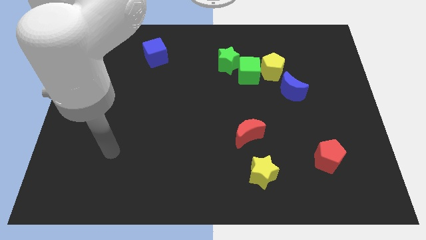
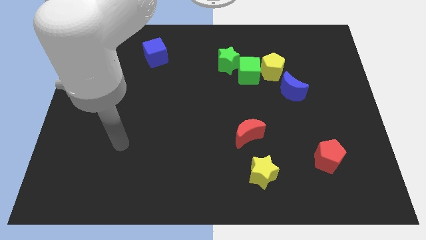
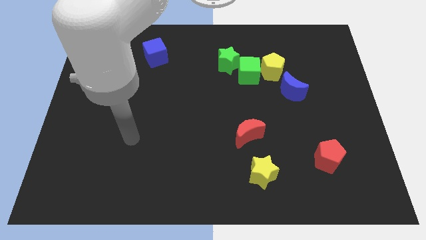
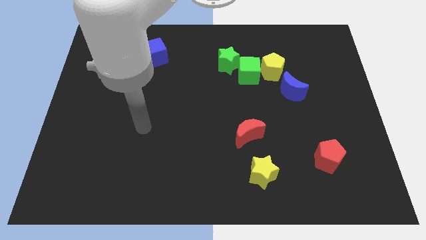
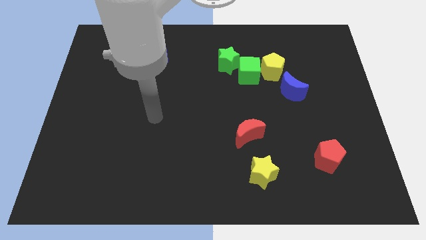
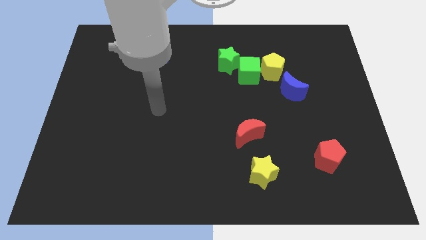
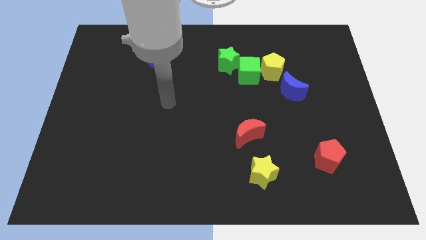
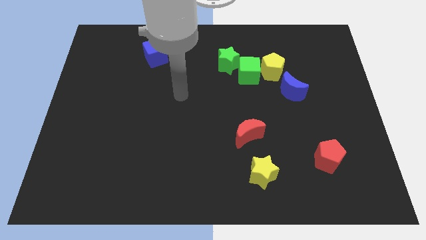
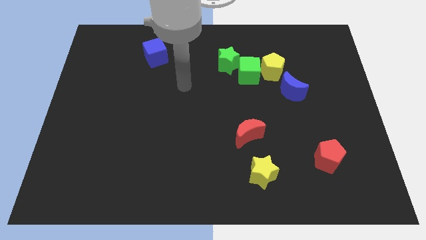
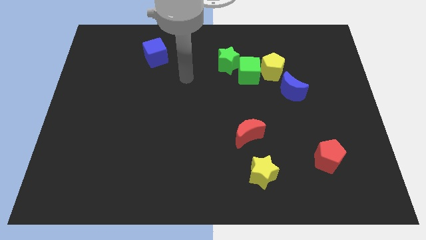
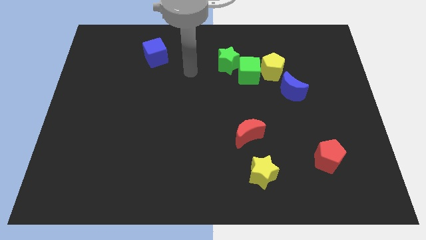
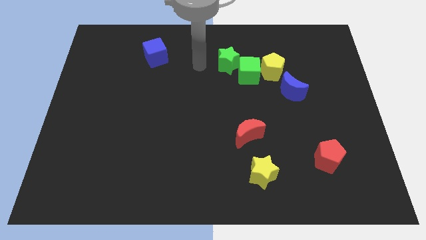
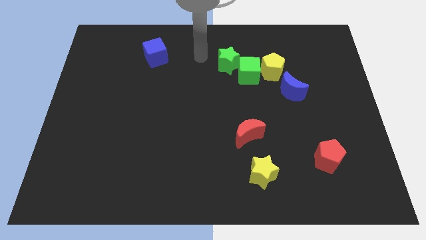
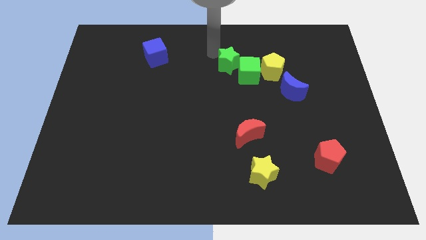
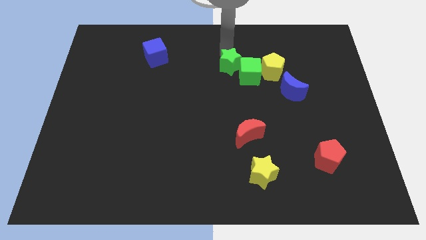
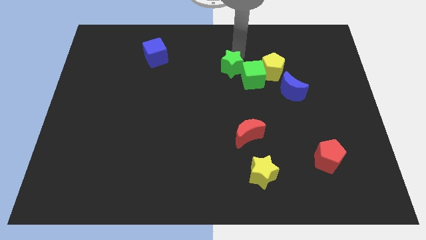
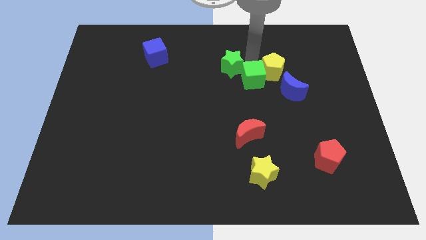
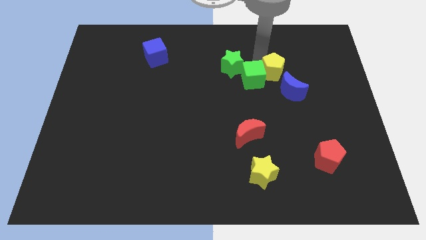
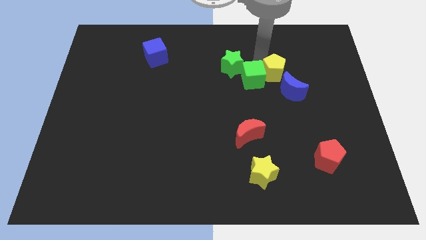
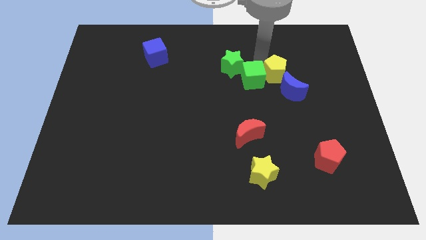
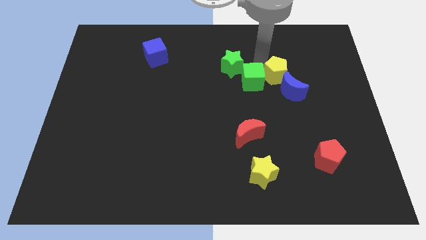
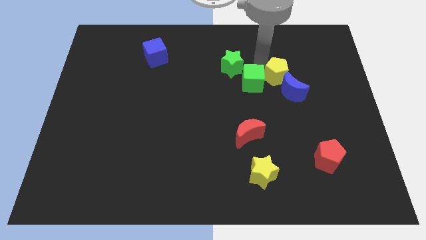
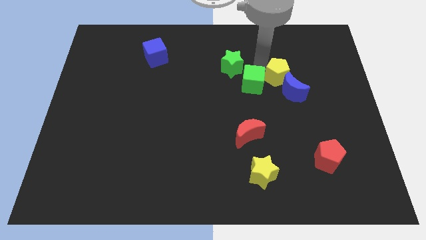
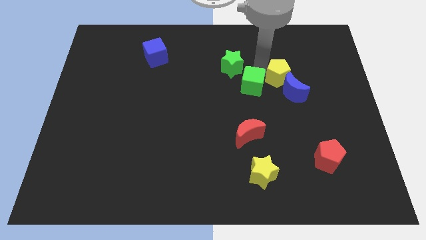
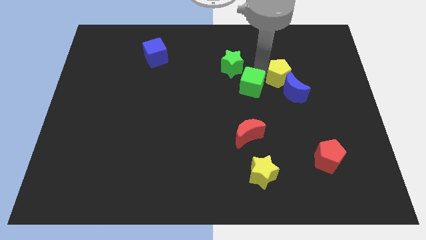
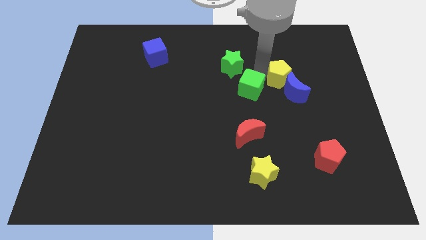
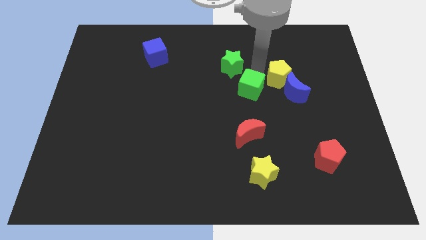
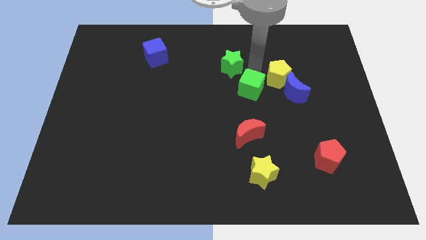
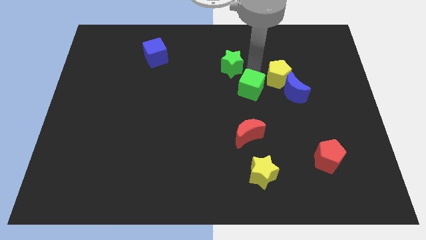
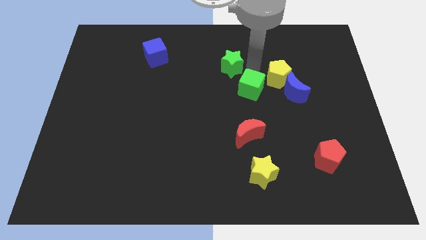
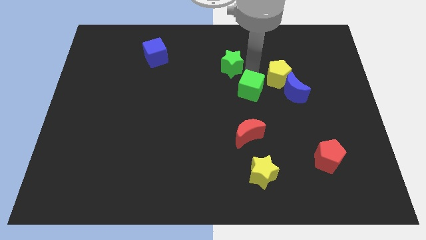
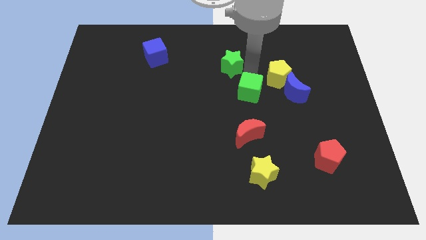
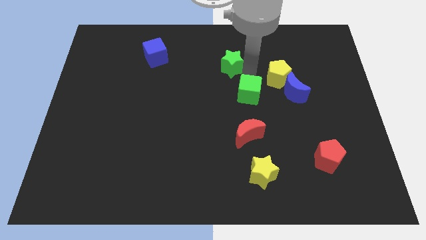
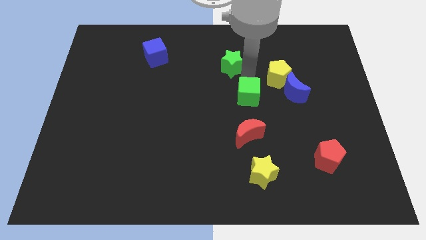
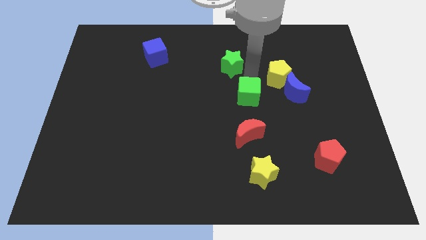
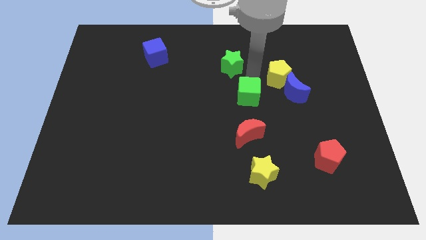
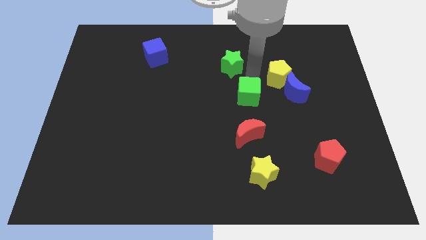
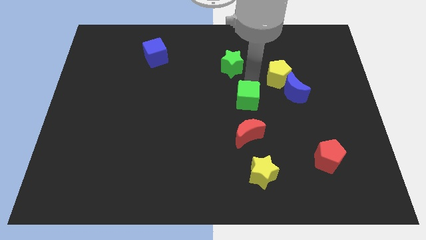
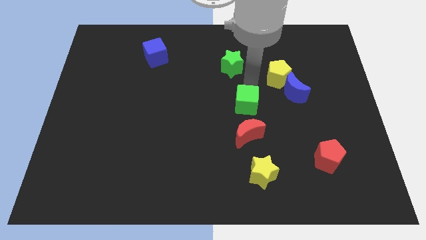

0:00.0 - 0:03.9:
move the green cube away from the yellow pentagon and green star

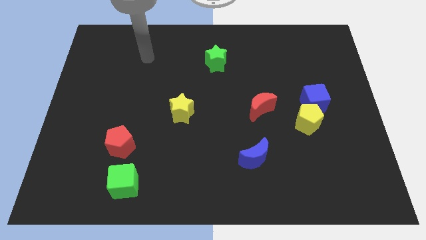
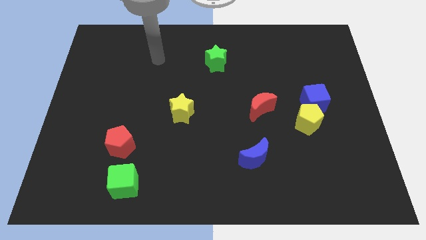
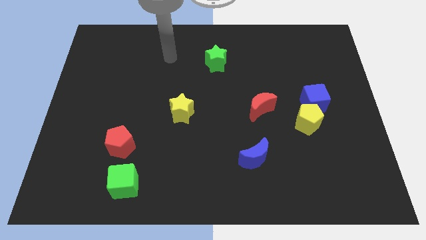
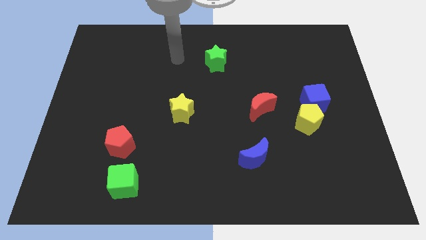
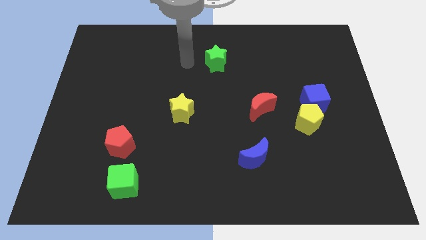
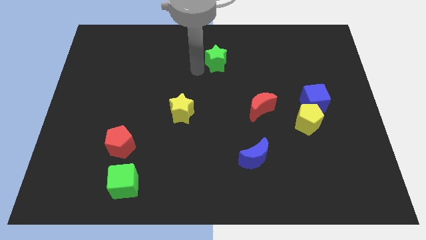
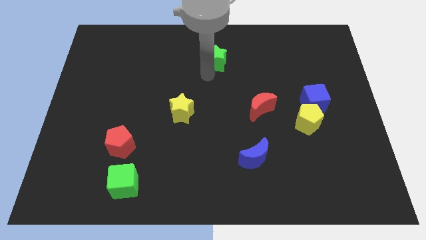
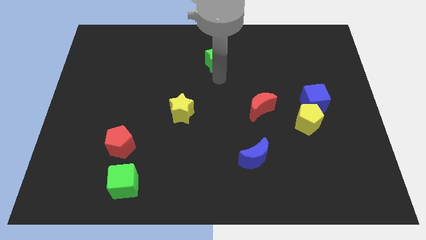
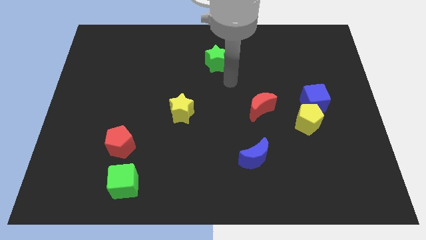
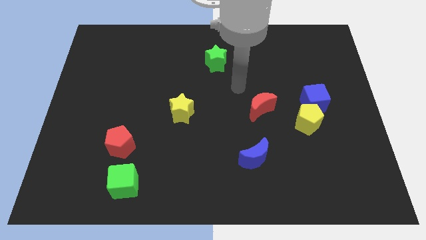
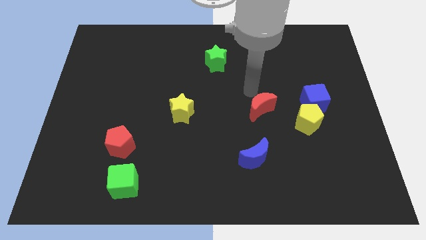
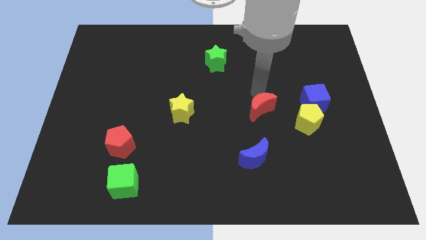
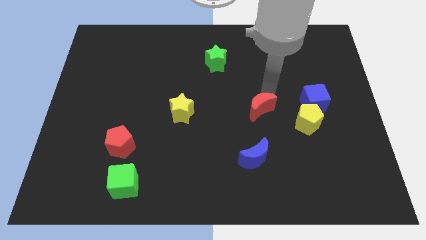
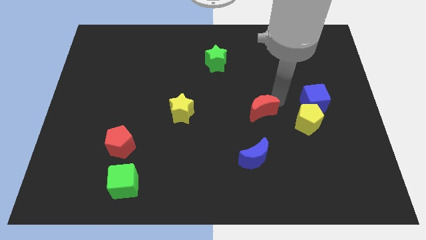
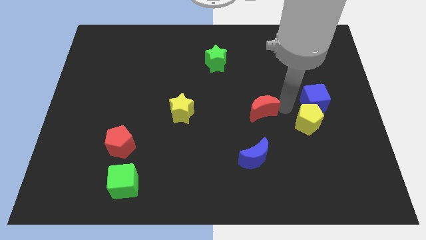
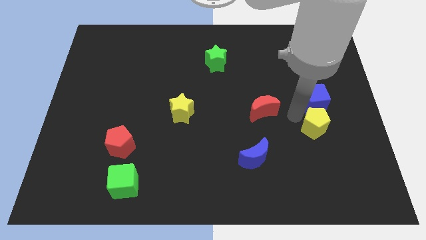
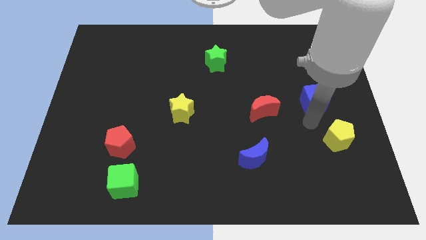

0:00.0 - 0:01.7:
pull the blue cube apart from the yellow pentagon

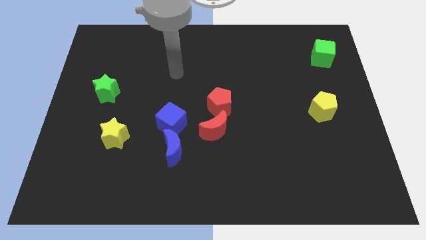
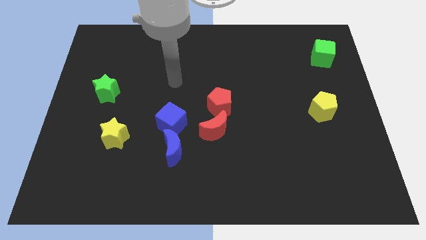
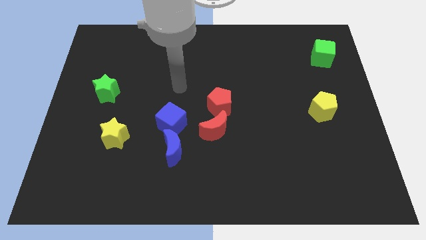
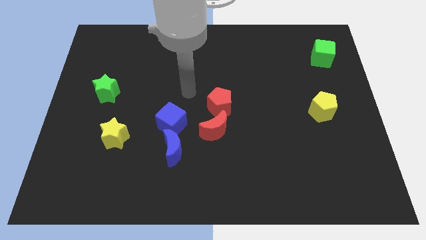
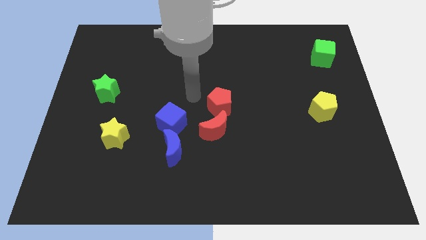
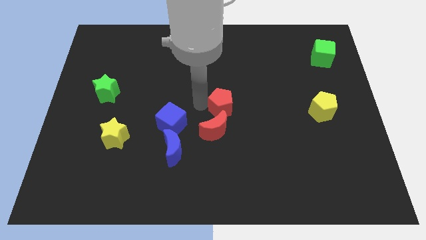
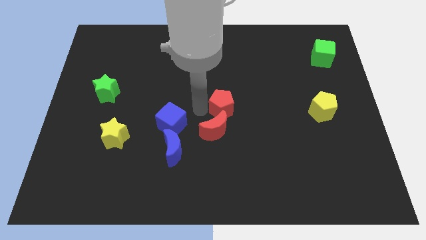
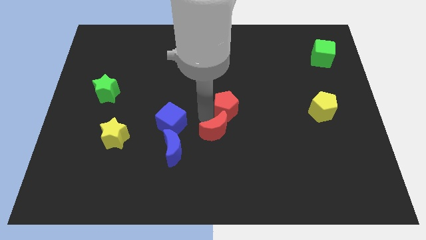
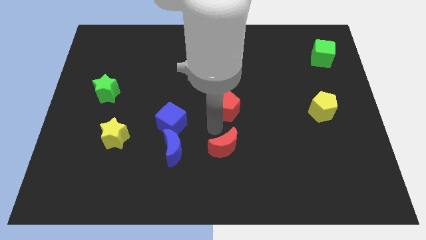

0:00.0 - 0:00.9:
move the red pentagon away from the red moon

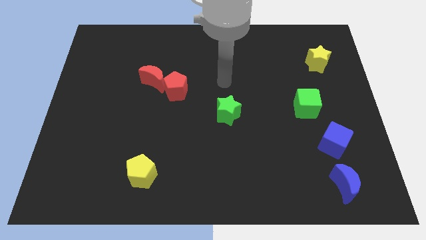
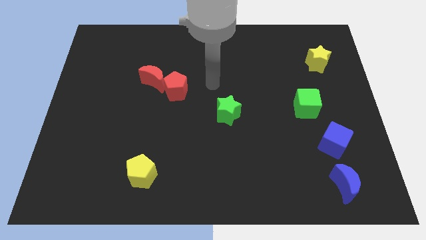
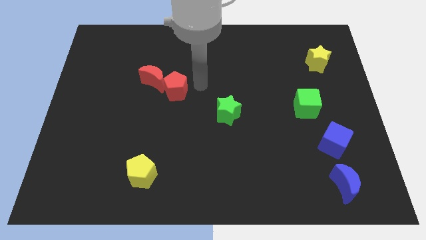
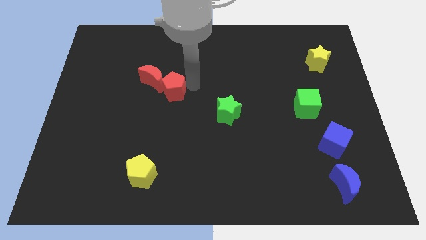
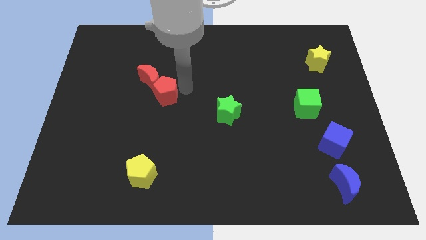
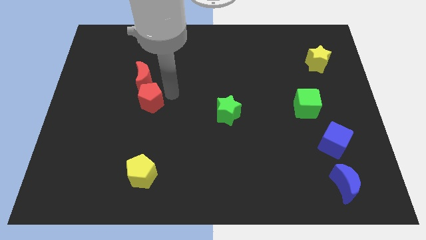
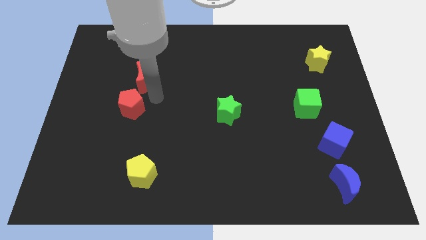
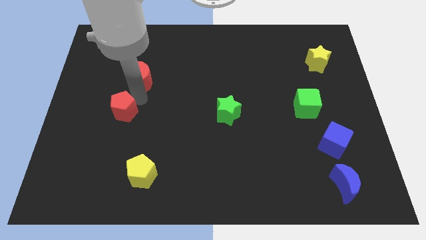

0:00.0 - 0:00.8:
pull the red moon apart from the red pentagon

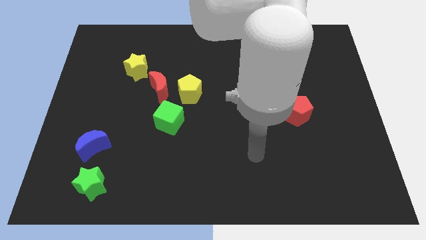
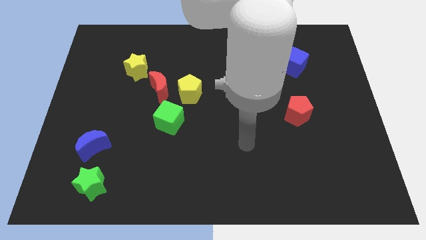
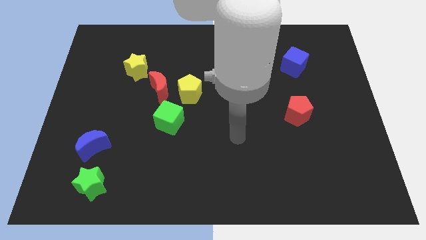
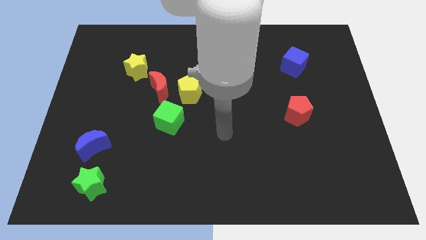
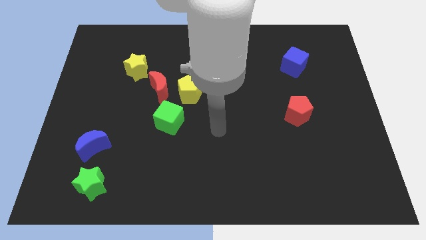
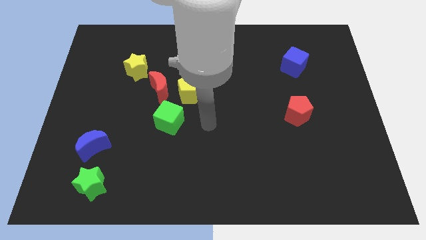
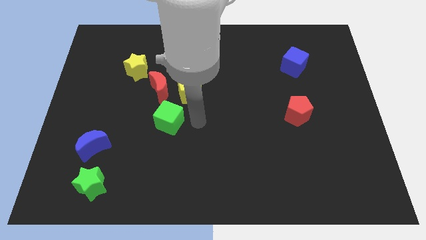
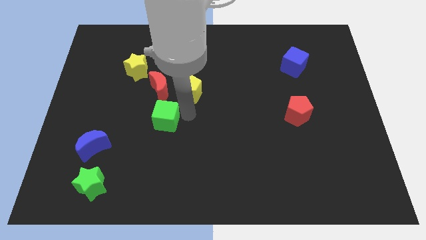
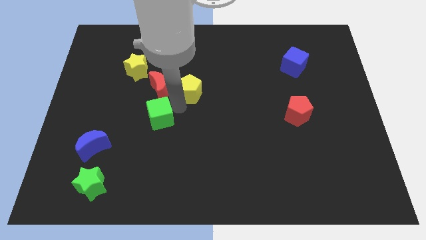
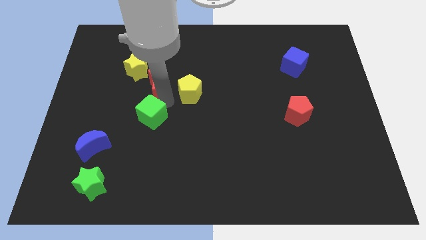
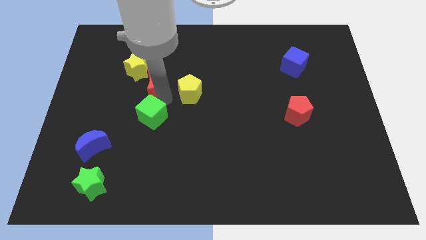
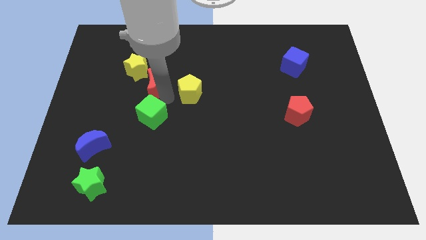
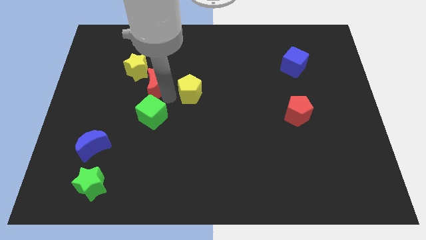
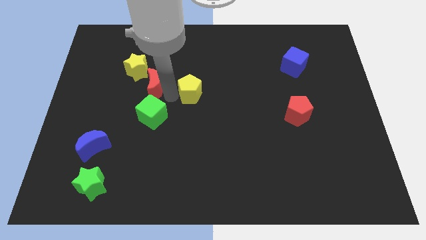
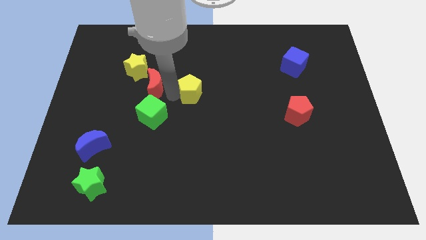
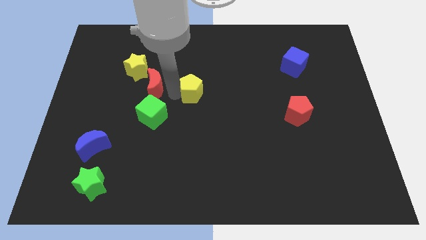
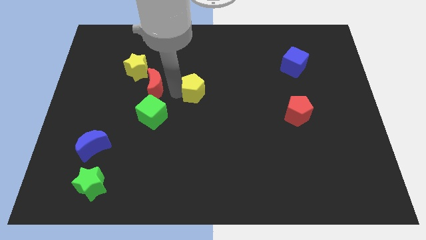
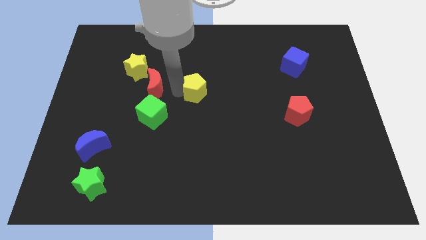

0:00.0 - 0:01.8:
pull the yellow pentagon apart from the red moon and green cube

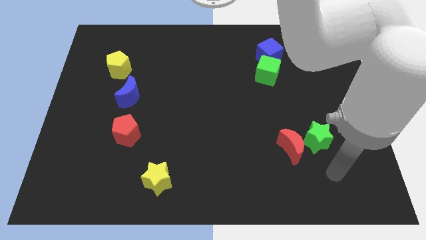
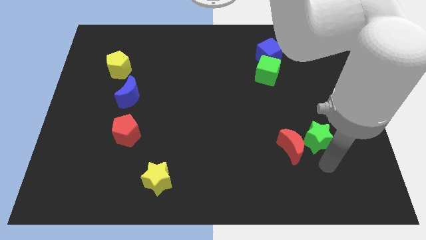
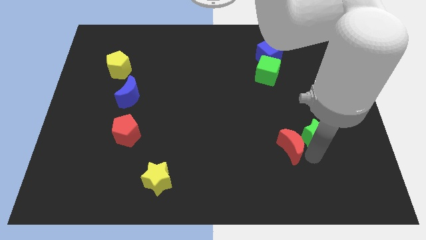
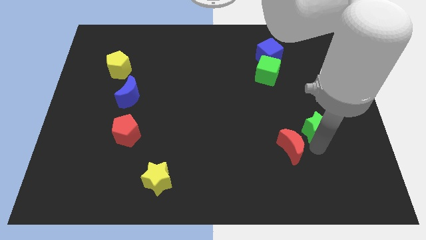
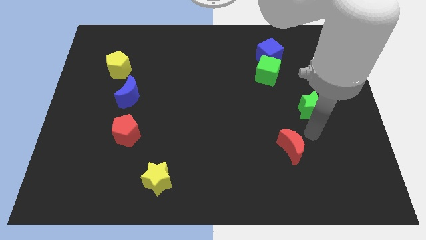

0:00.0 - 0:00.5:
move the red moon away from the green star
